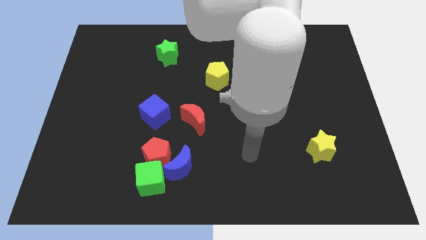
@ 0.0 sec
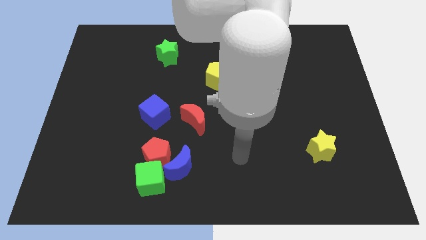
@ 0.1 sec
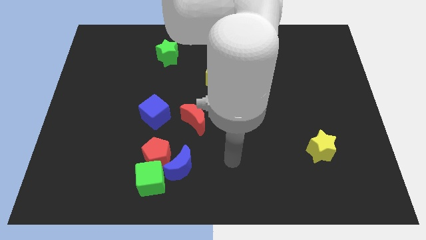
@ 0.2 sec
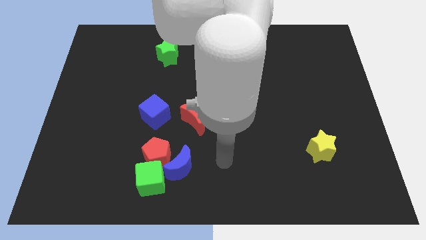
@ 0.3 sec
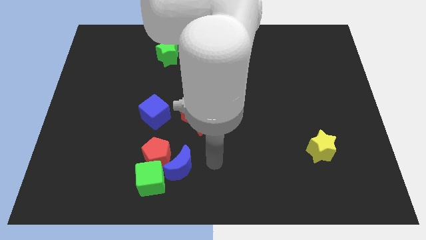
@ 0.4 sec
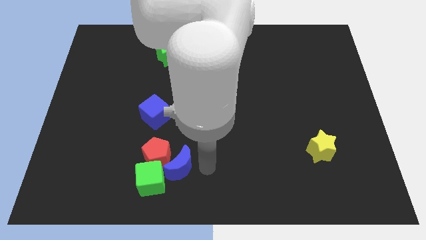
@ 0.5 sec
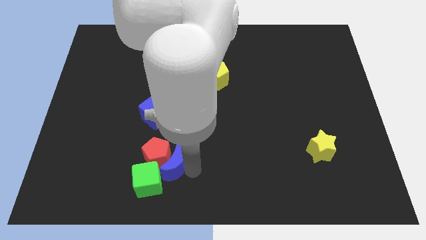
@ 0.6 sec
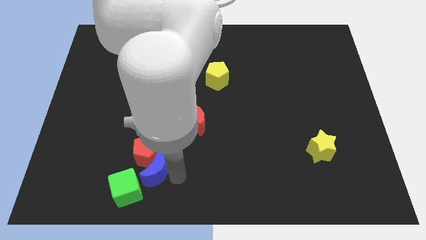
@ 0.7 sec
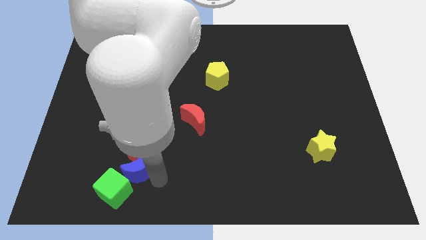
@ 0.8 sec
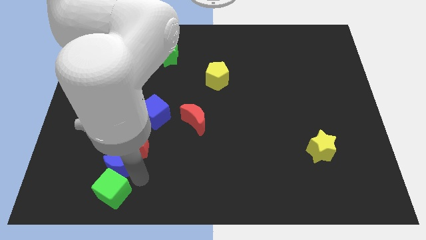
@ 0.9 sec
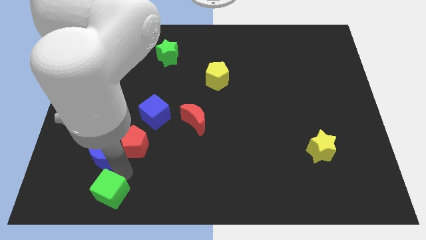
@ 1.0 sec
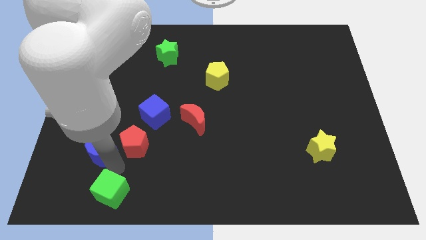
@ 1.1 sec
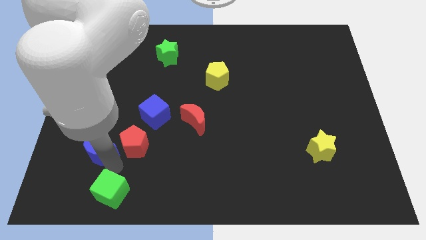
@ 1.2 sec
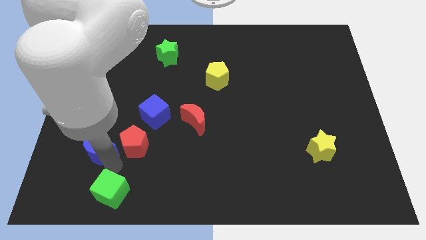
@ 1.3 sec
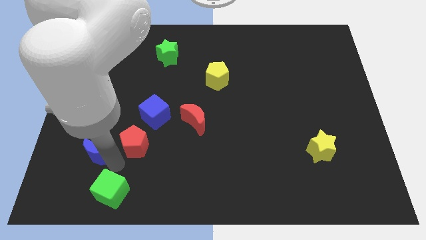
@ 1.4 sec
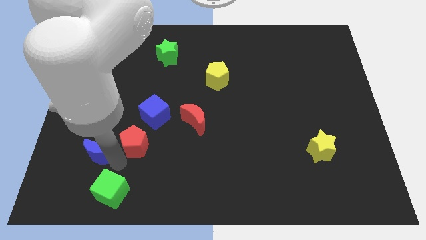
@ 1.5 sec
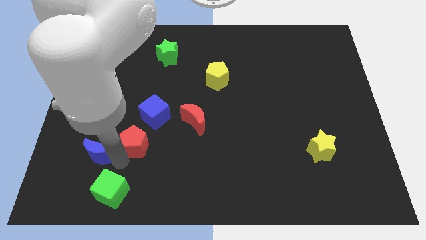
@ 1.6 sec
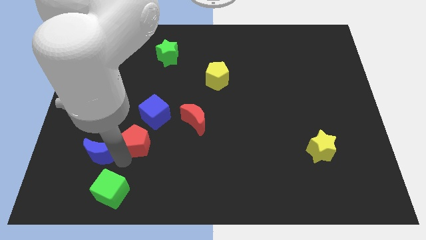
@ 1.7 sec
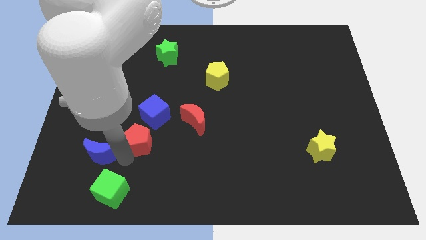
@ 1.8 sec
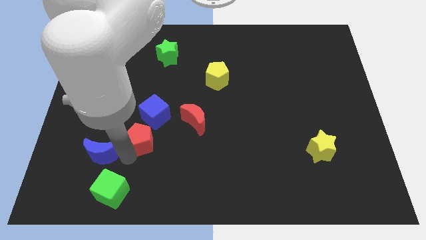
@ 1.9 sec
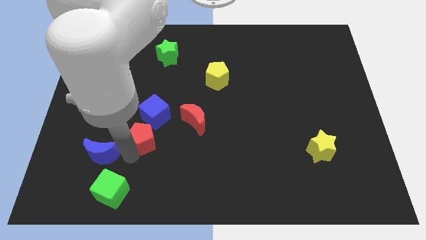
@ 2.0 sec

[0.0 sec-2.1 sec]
move the red pentagon away from the green cube and blue moon

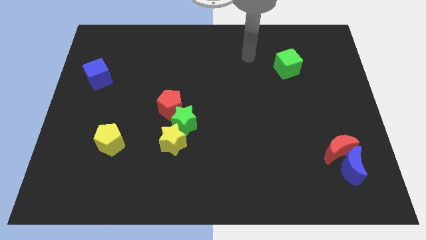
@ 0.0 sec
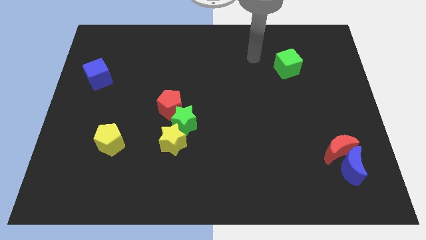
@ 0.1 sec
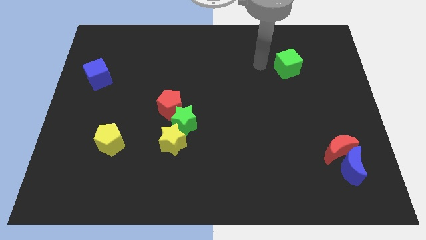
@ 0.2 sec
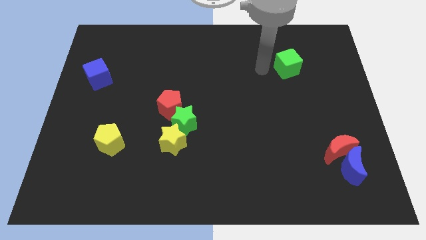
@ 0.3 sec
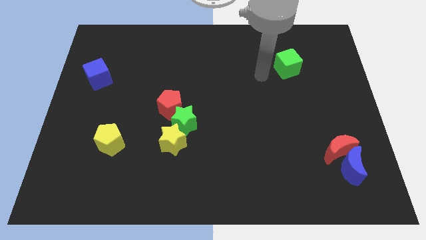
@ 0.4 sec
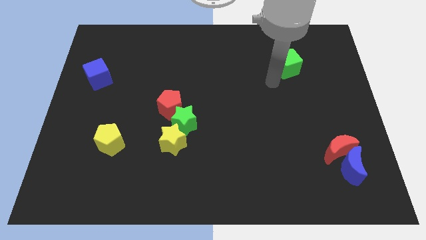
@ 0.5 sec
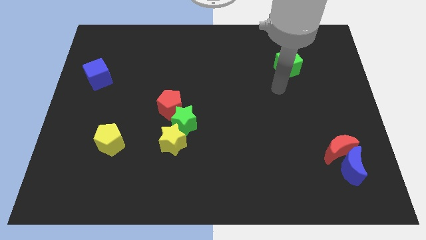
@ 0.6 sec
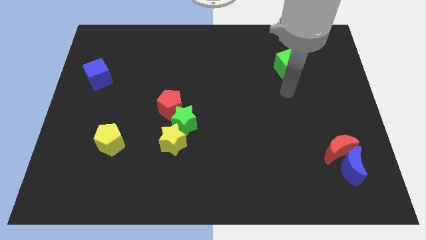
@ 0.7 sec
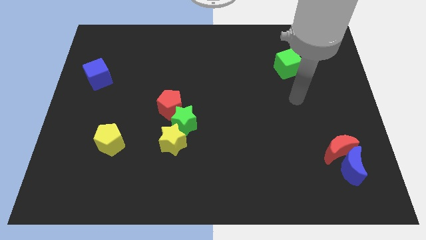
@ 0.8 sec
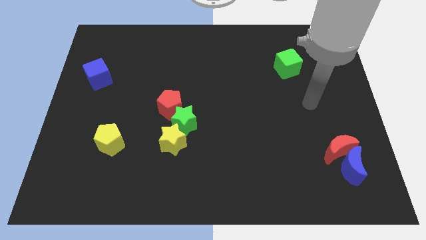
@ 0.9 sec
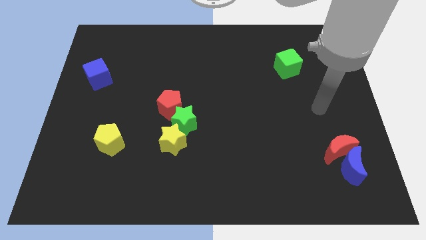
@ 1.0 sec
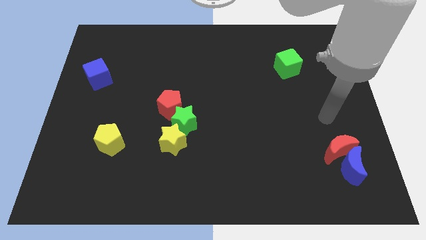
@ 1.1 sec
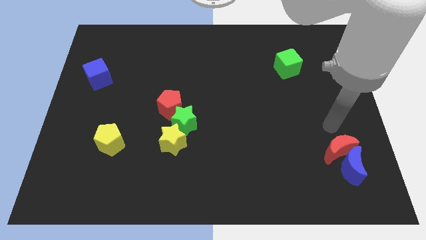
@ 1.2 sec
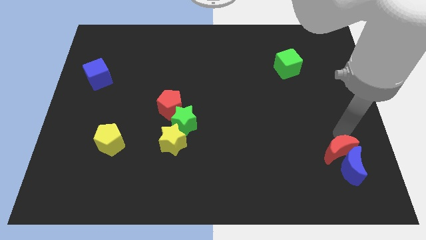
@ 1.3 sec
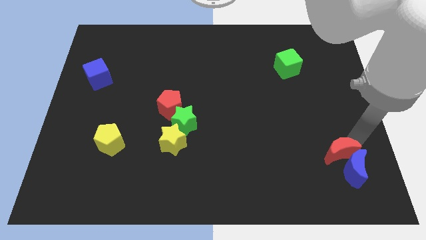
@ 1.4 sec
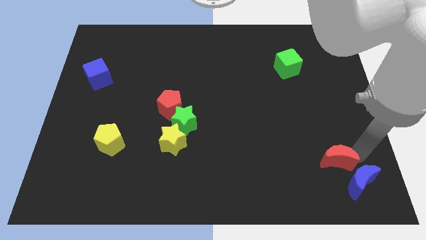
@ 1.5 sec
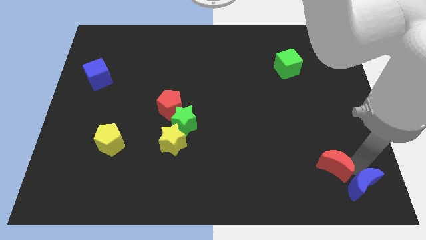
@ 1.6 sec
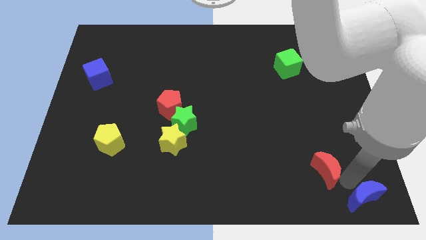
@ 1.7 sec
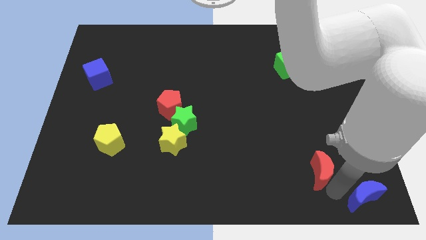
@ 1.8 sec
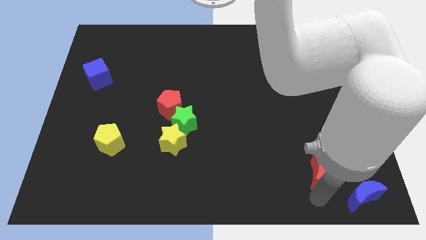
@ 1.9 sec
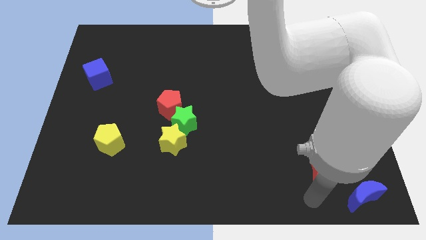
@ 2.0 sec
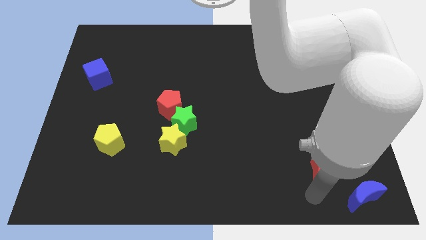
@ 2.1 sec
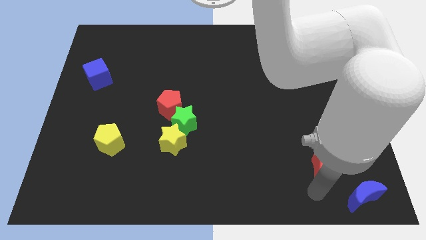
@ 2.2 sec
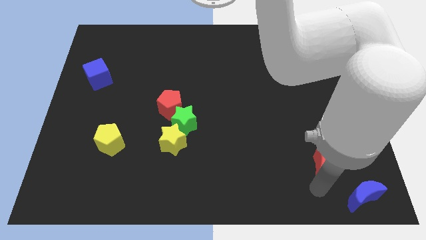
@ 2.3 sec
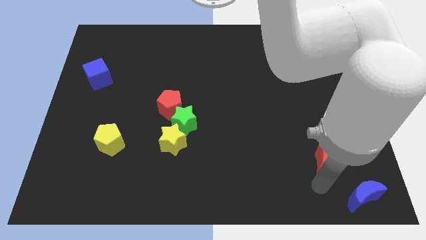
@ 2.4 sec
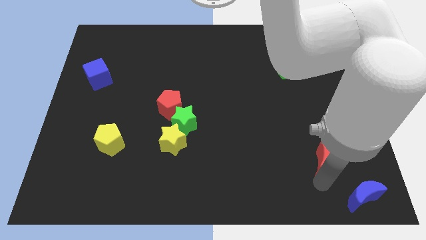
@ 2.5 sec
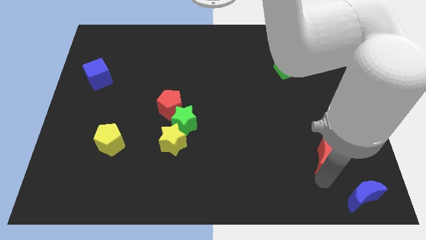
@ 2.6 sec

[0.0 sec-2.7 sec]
move the red moon away from the blue moon

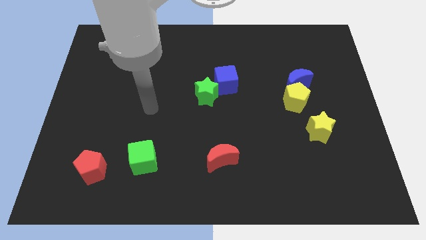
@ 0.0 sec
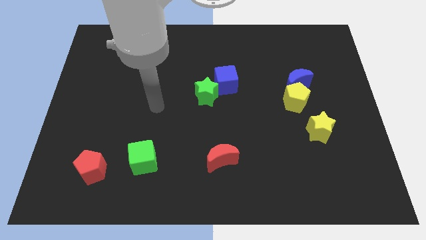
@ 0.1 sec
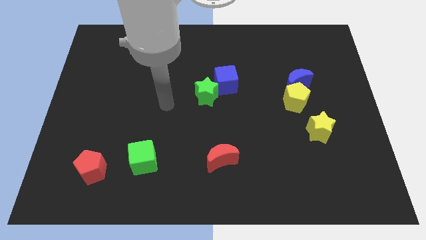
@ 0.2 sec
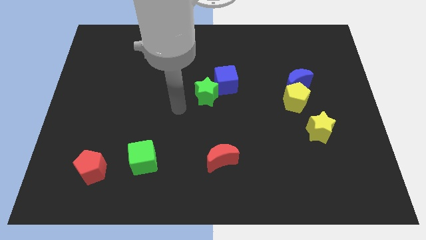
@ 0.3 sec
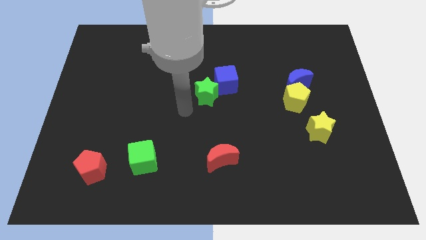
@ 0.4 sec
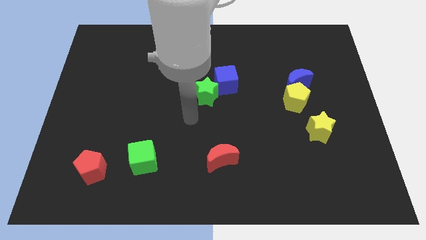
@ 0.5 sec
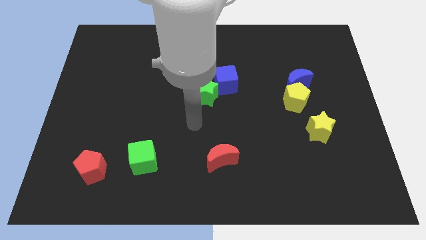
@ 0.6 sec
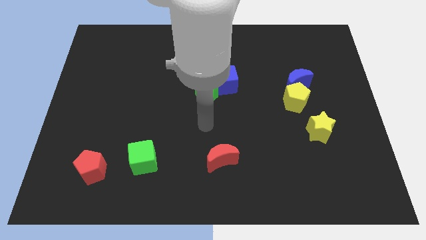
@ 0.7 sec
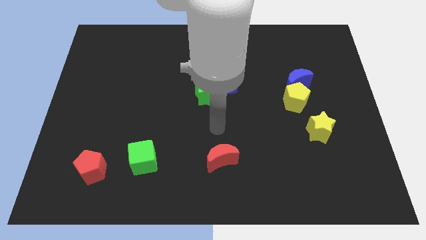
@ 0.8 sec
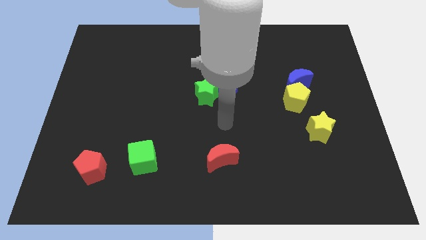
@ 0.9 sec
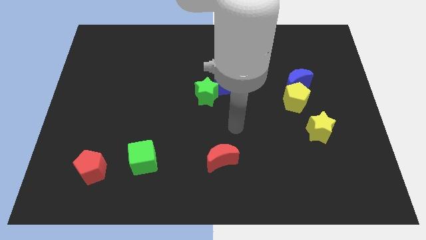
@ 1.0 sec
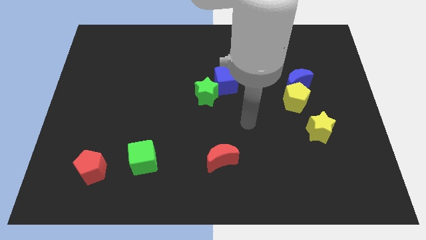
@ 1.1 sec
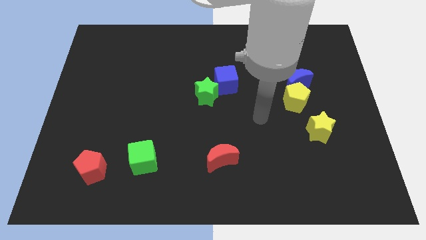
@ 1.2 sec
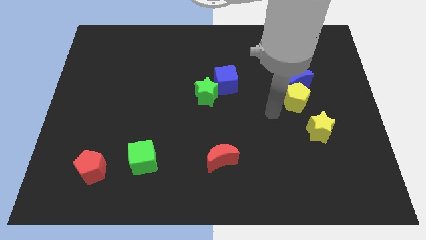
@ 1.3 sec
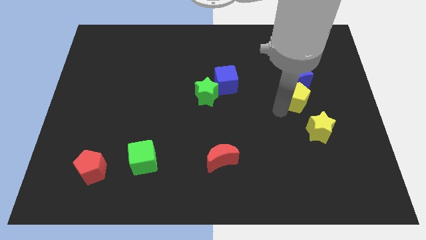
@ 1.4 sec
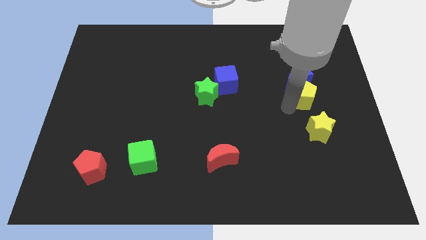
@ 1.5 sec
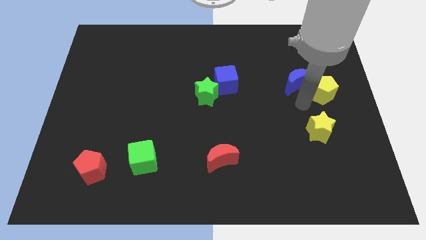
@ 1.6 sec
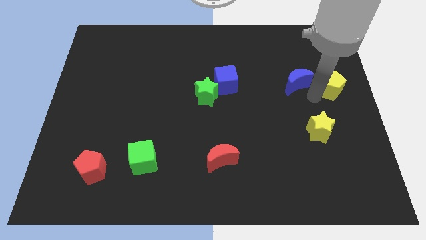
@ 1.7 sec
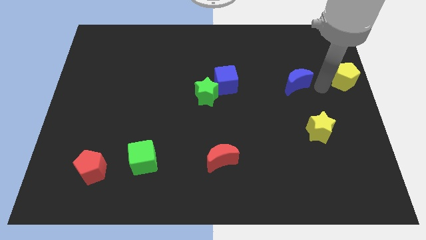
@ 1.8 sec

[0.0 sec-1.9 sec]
move the blue moon away from the yellow pentagon

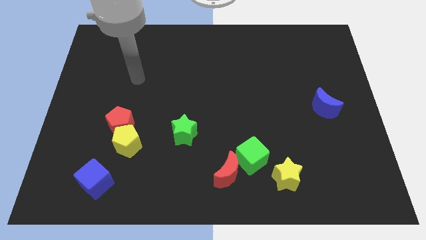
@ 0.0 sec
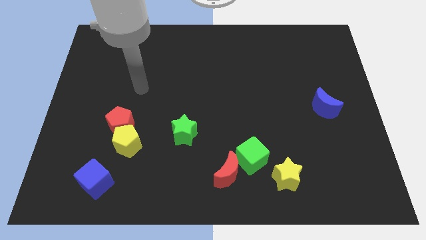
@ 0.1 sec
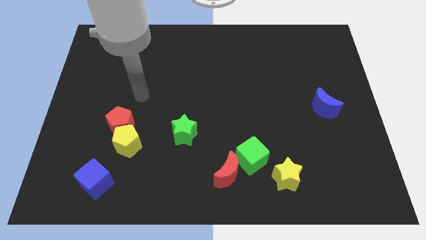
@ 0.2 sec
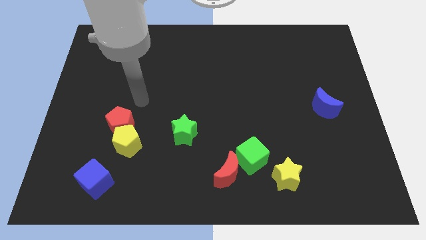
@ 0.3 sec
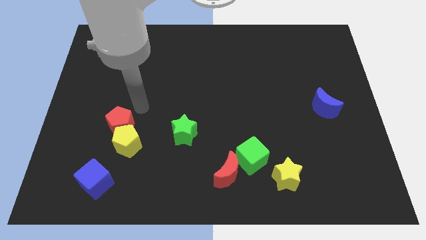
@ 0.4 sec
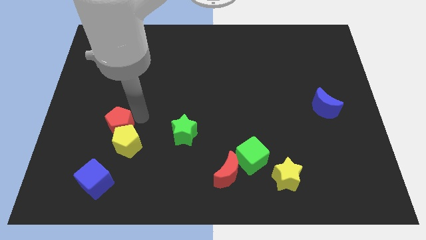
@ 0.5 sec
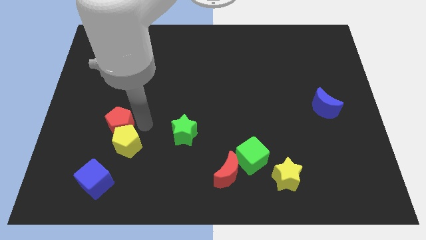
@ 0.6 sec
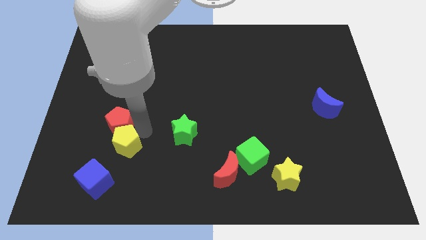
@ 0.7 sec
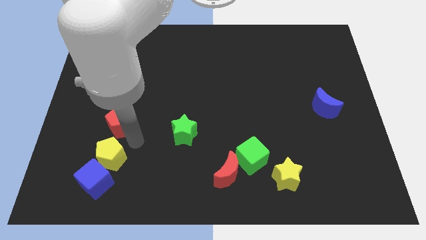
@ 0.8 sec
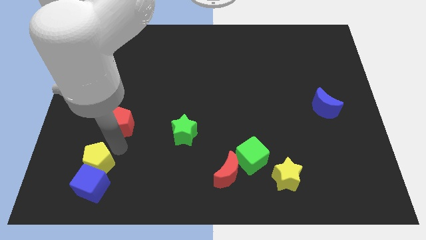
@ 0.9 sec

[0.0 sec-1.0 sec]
separate the red pentagon from the yellow pentagon

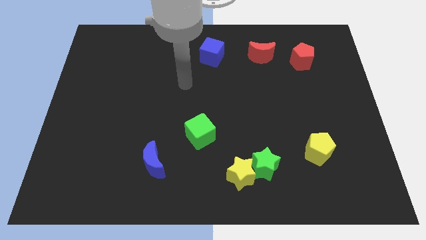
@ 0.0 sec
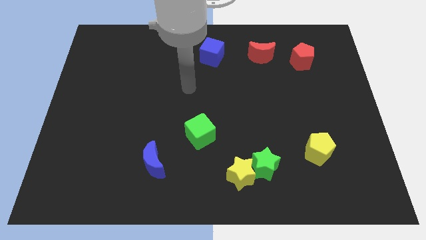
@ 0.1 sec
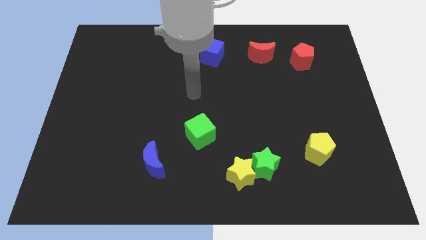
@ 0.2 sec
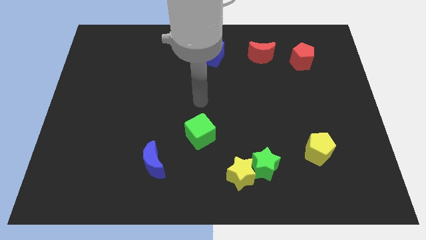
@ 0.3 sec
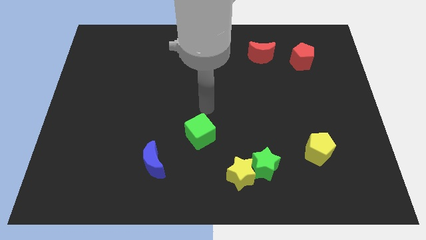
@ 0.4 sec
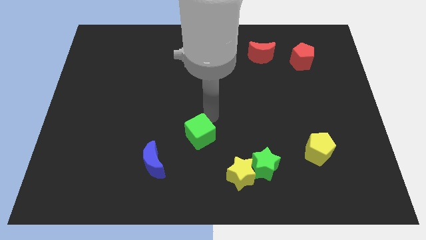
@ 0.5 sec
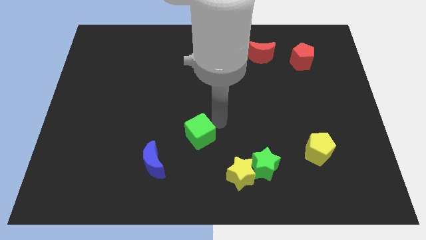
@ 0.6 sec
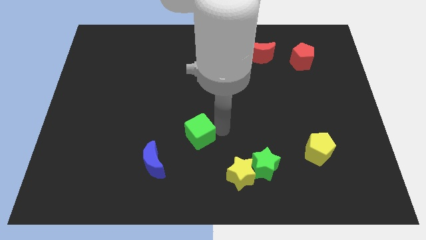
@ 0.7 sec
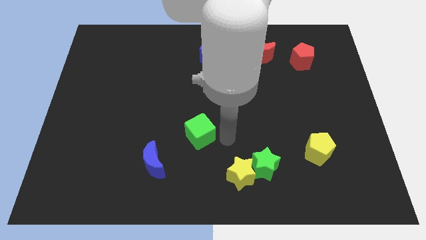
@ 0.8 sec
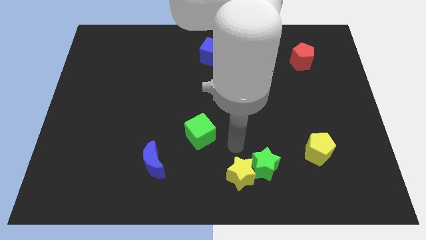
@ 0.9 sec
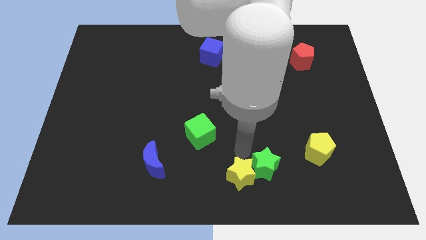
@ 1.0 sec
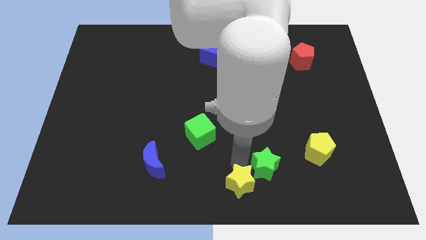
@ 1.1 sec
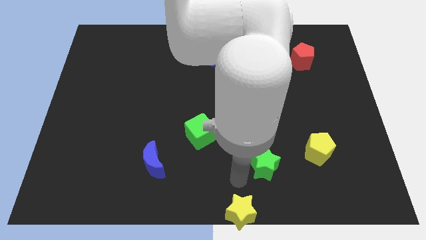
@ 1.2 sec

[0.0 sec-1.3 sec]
pull the green star apart from the yellow star

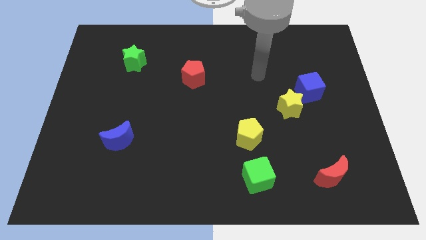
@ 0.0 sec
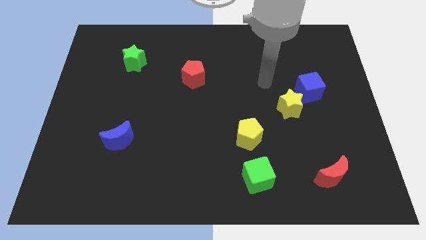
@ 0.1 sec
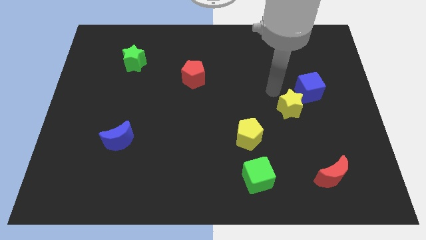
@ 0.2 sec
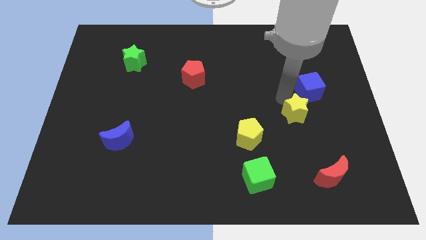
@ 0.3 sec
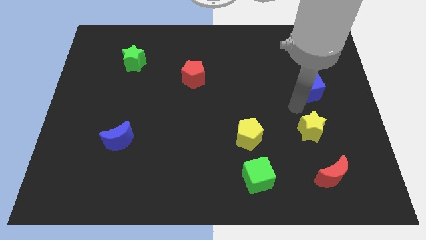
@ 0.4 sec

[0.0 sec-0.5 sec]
move the blue cube away from the yellow star
